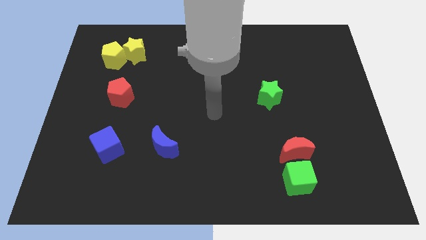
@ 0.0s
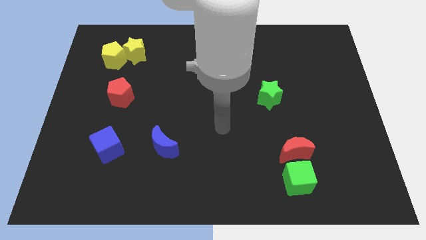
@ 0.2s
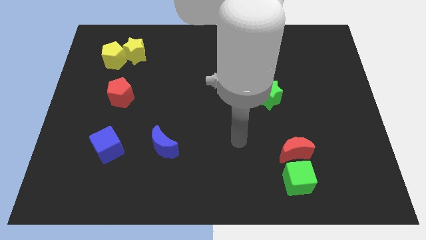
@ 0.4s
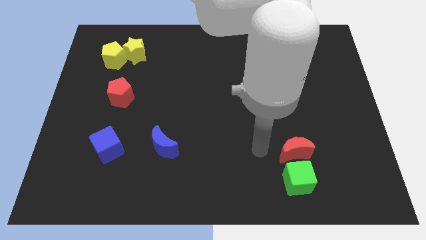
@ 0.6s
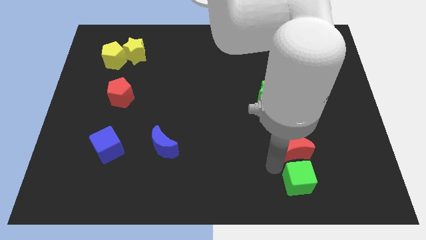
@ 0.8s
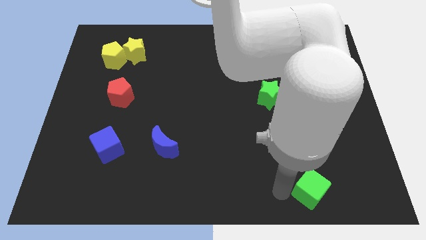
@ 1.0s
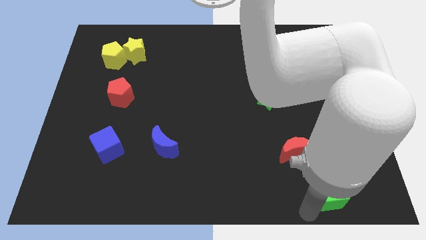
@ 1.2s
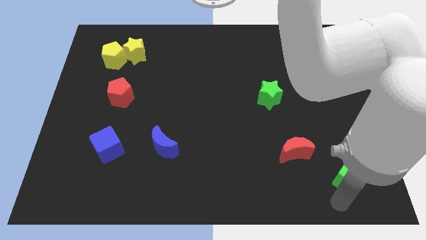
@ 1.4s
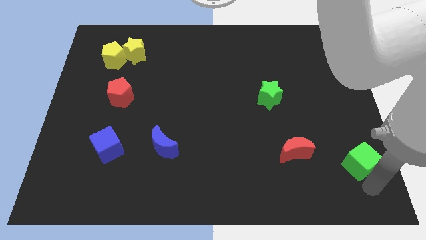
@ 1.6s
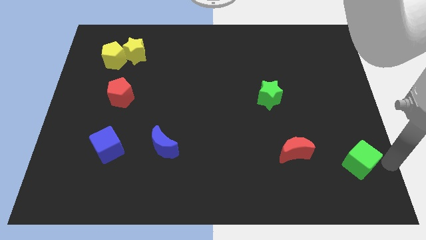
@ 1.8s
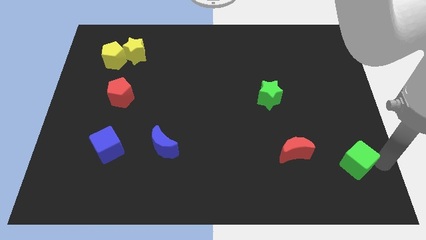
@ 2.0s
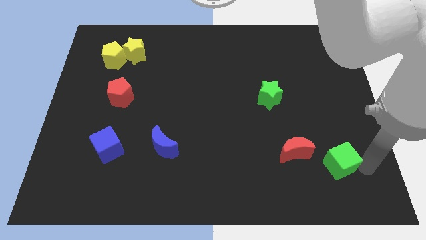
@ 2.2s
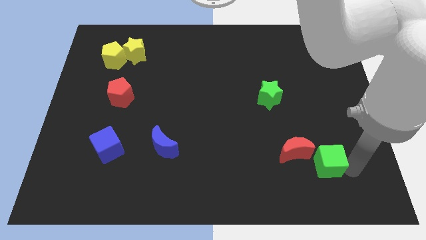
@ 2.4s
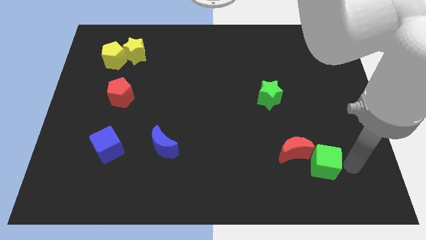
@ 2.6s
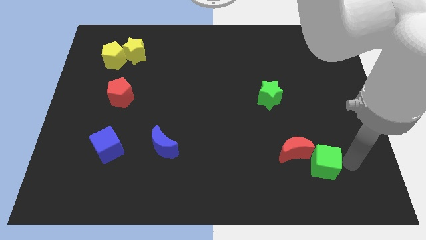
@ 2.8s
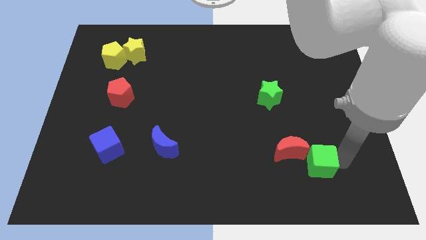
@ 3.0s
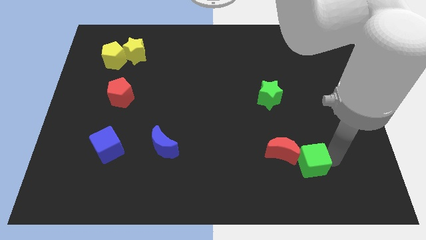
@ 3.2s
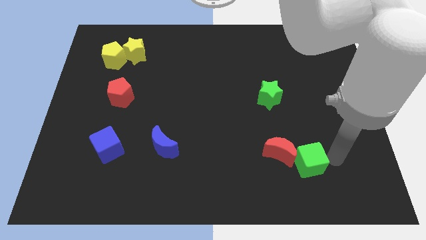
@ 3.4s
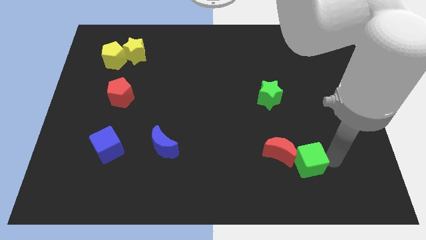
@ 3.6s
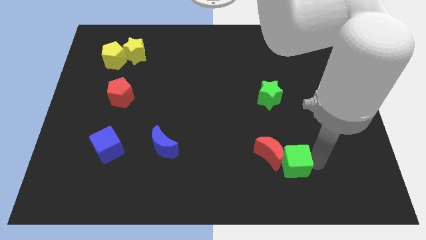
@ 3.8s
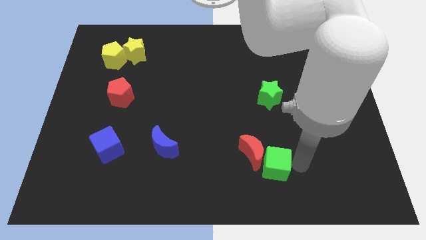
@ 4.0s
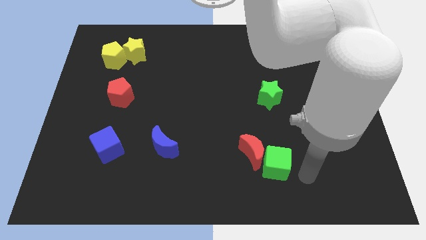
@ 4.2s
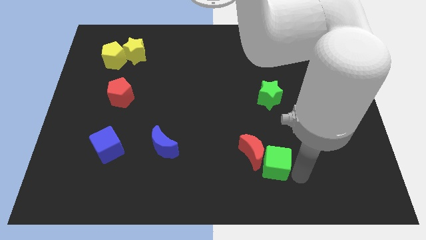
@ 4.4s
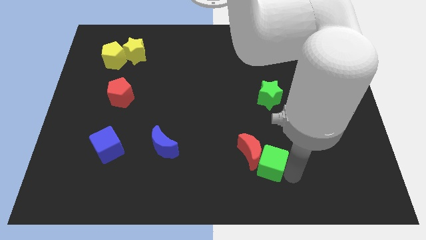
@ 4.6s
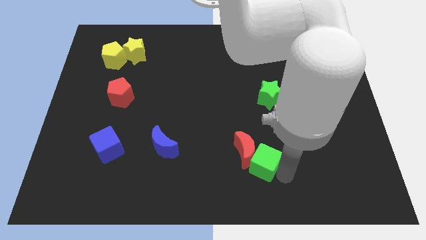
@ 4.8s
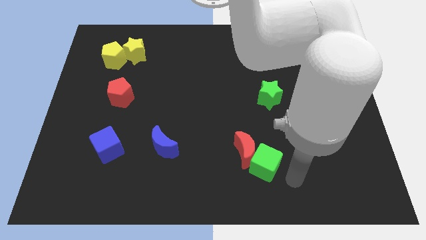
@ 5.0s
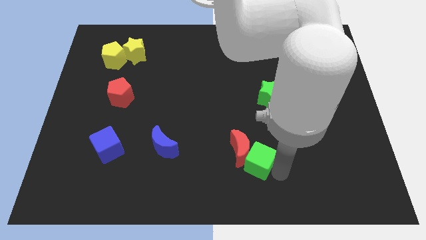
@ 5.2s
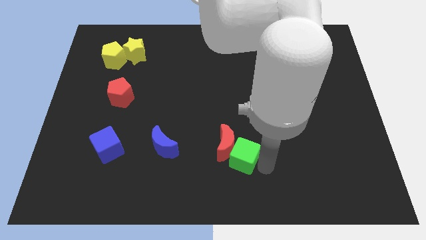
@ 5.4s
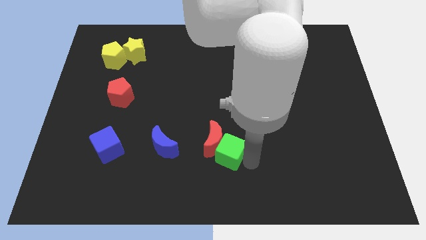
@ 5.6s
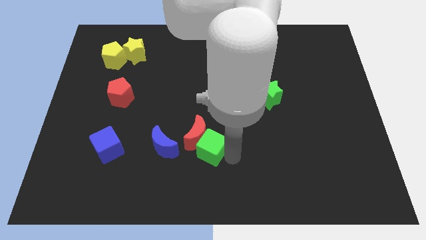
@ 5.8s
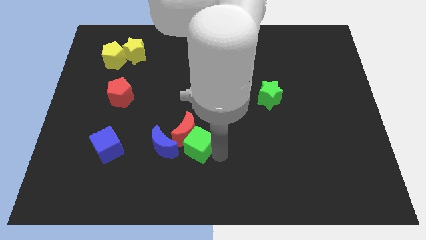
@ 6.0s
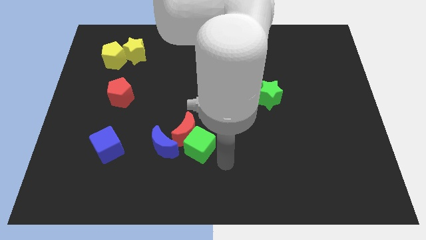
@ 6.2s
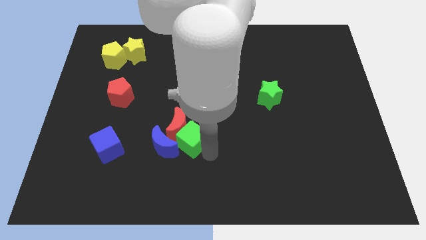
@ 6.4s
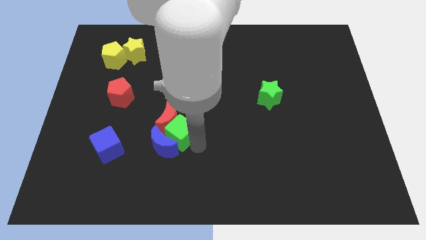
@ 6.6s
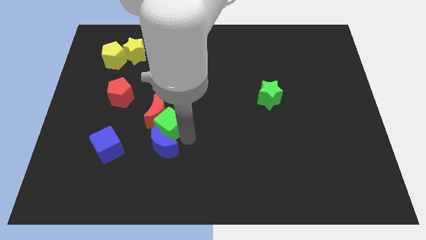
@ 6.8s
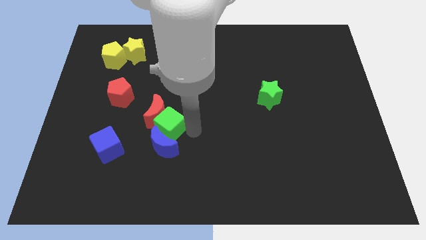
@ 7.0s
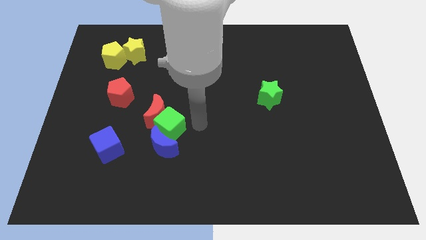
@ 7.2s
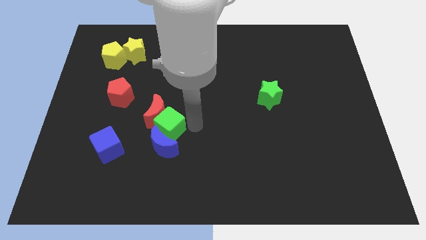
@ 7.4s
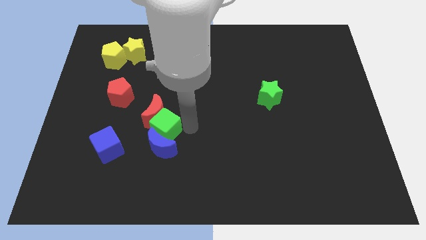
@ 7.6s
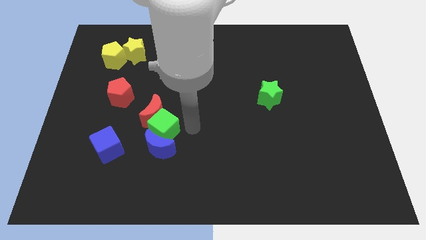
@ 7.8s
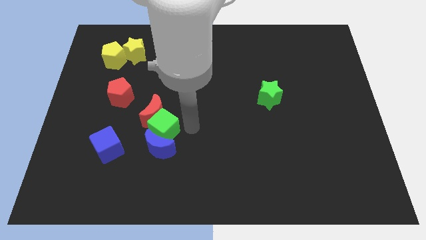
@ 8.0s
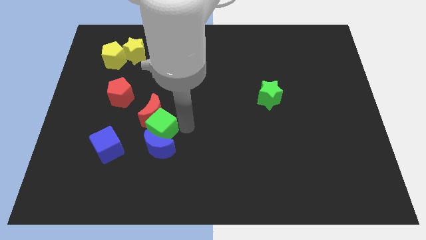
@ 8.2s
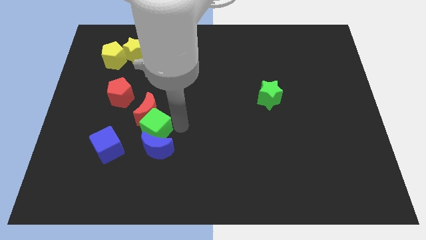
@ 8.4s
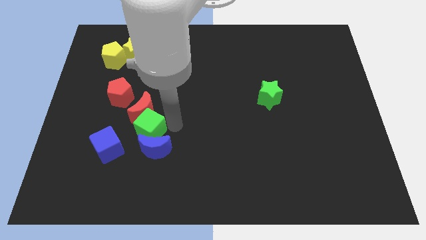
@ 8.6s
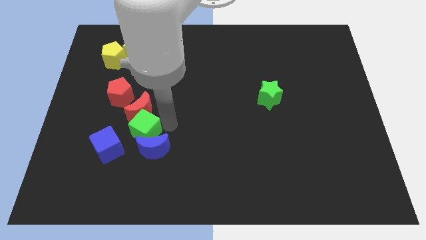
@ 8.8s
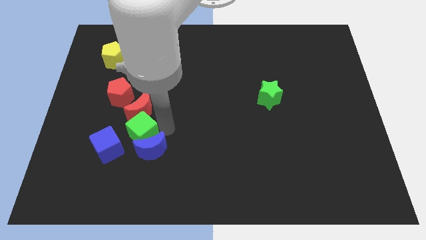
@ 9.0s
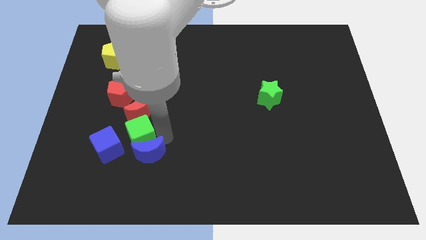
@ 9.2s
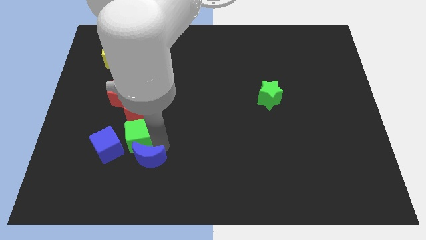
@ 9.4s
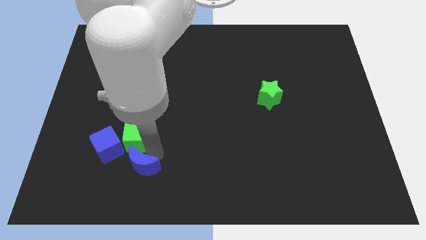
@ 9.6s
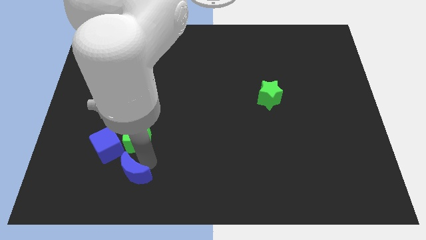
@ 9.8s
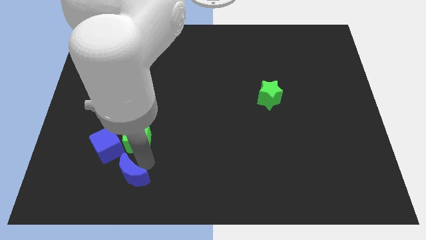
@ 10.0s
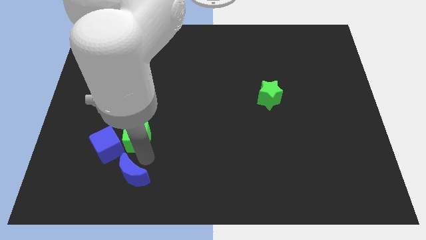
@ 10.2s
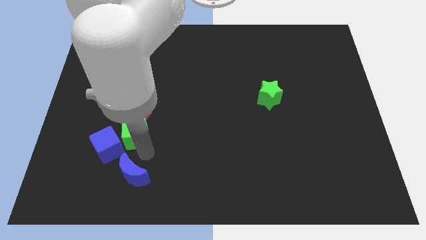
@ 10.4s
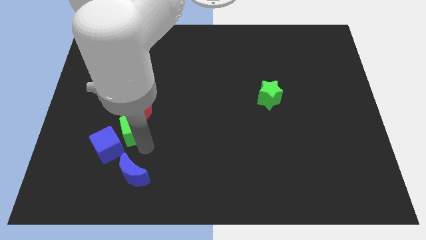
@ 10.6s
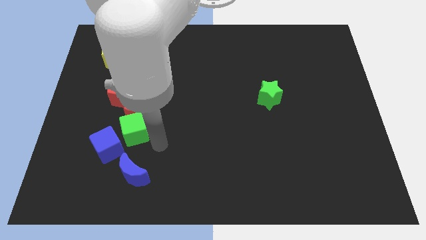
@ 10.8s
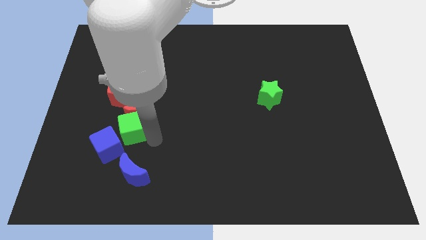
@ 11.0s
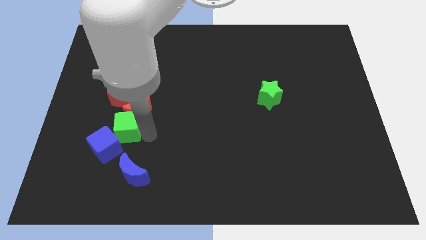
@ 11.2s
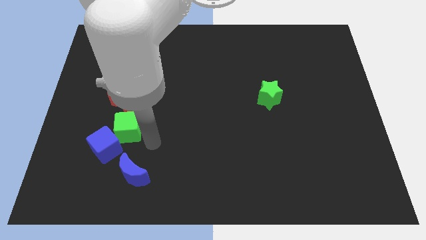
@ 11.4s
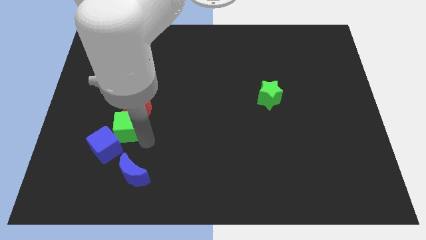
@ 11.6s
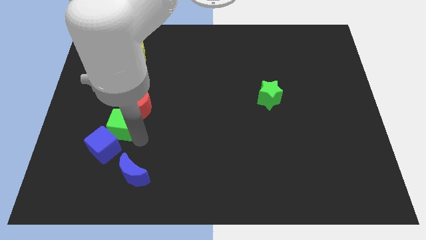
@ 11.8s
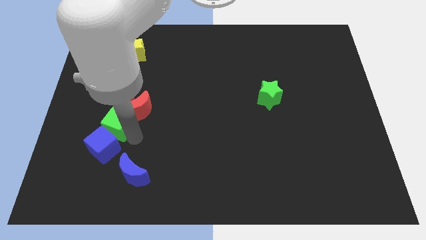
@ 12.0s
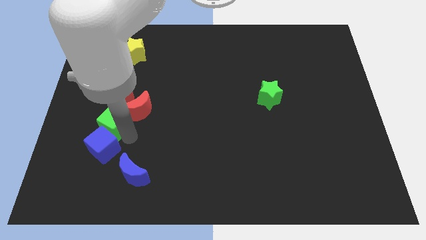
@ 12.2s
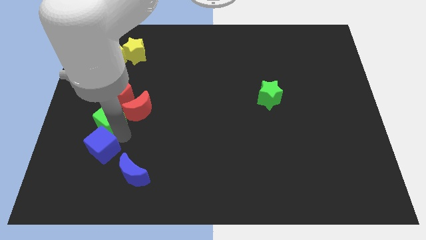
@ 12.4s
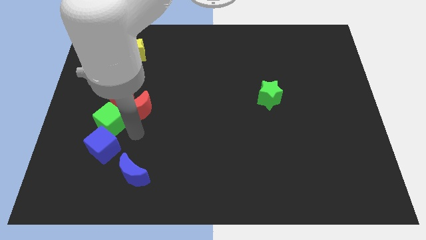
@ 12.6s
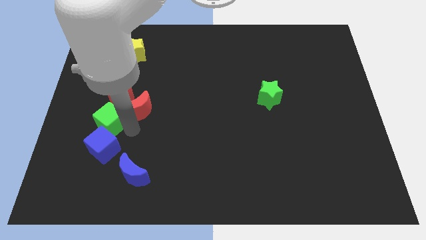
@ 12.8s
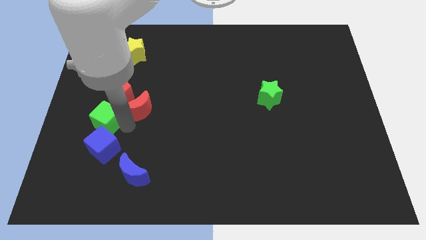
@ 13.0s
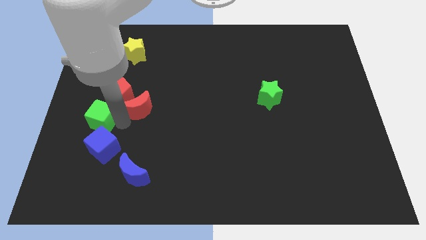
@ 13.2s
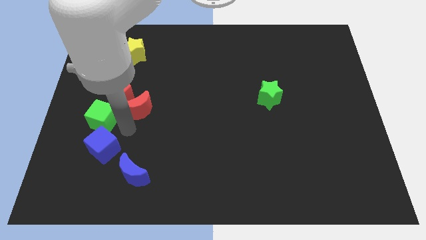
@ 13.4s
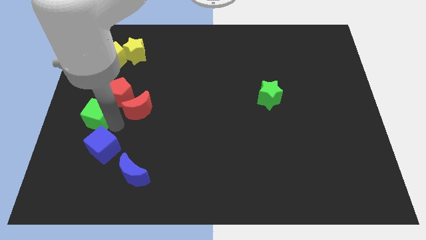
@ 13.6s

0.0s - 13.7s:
move the green cube to the left side of the board
